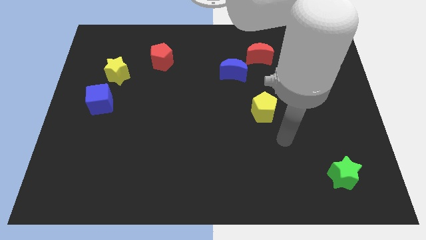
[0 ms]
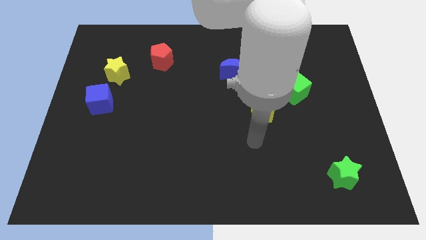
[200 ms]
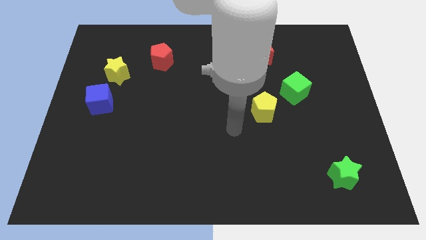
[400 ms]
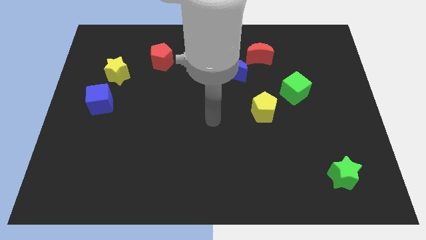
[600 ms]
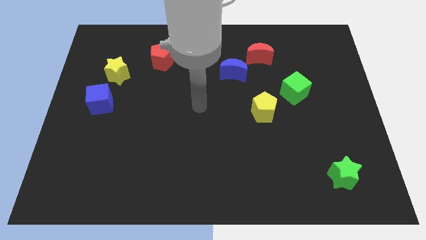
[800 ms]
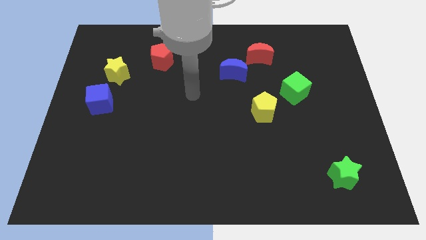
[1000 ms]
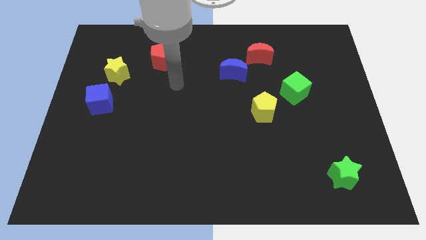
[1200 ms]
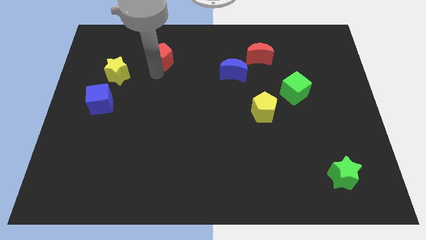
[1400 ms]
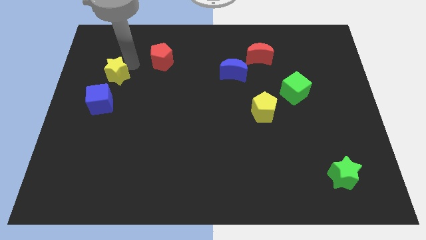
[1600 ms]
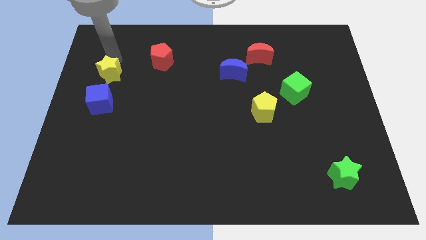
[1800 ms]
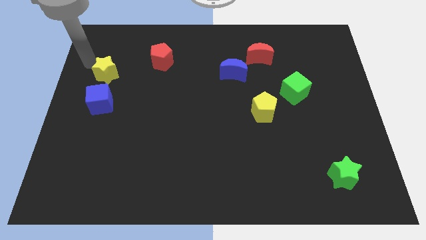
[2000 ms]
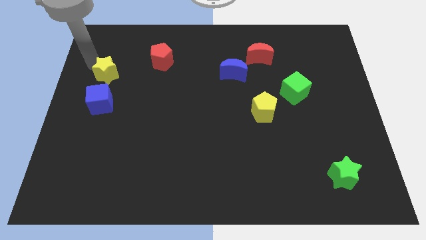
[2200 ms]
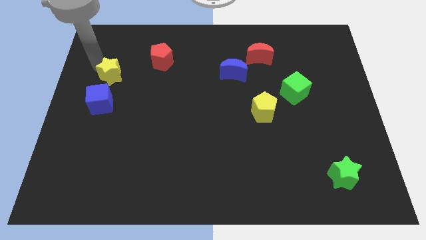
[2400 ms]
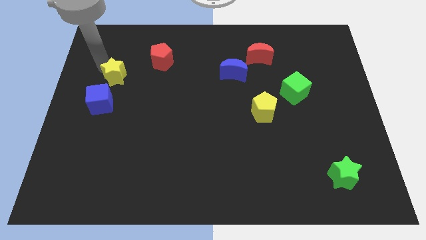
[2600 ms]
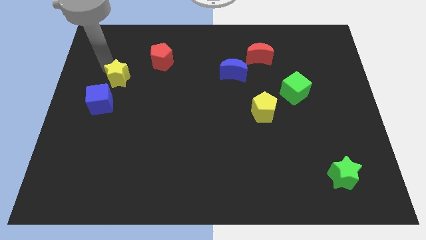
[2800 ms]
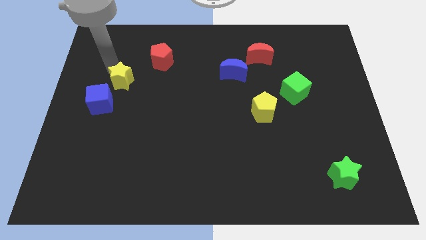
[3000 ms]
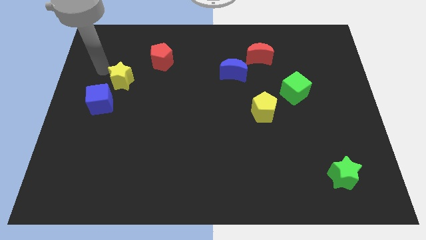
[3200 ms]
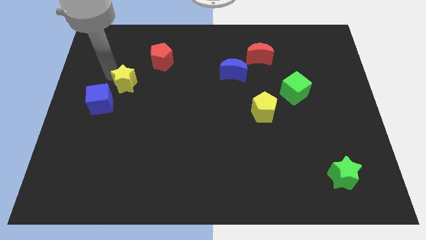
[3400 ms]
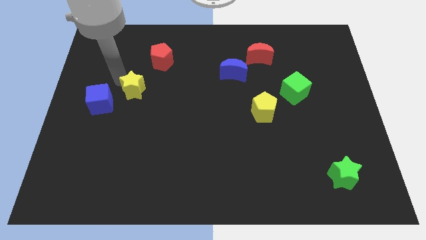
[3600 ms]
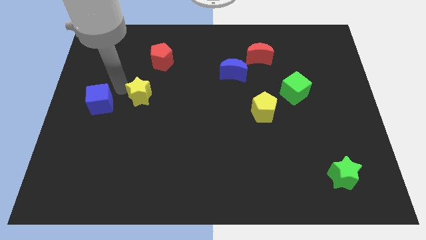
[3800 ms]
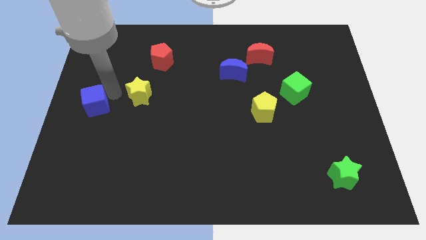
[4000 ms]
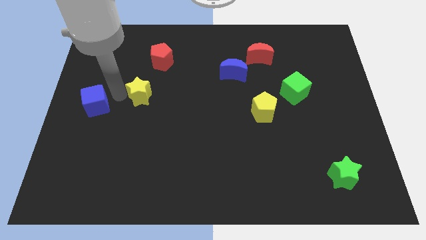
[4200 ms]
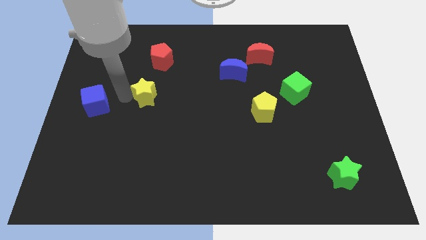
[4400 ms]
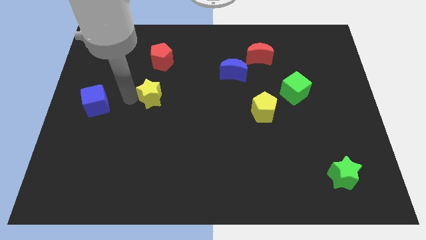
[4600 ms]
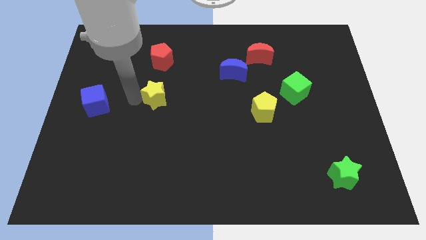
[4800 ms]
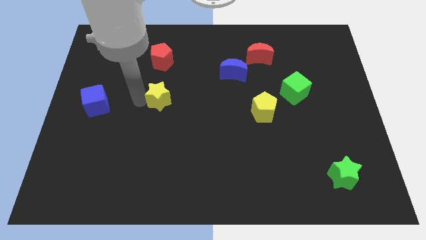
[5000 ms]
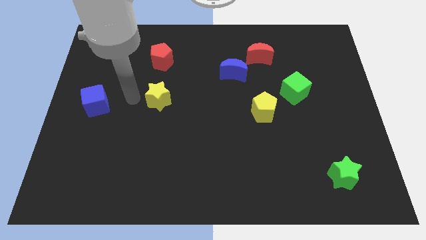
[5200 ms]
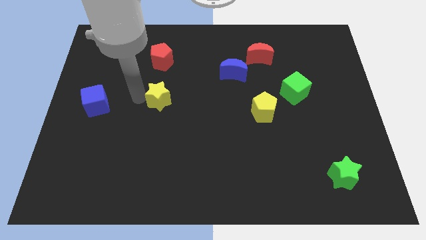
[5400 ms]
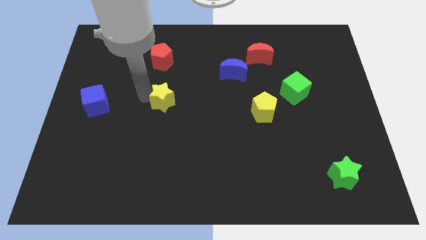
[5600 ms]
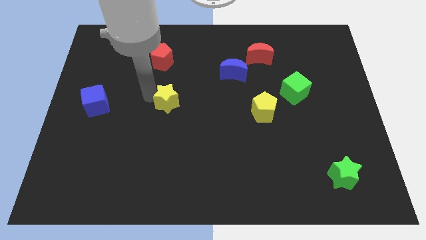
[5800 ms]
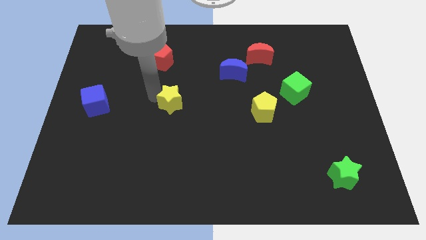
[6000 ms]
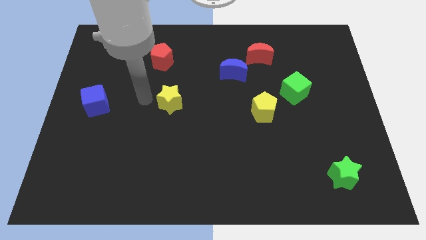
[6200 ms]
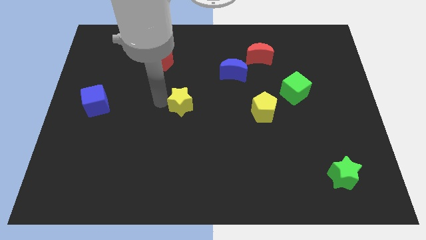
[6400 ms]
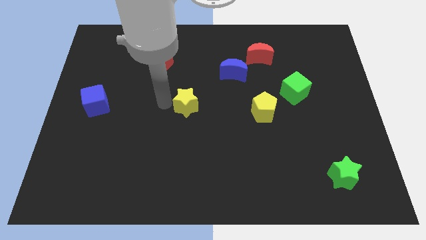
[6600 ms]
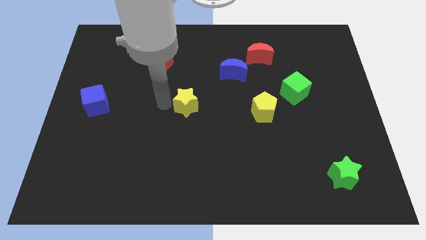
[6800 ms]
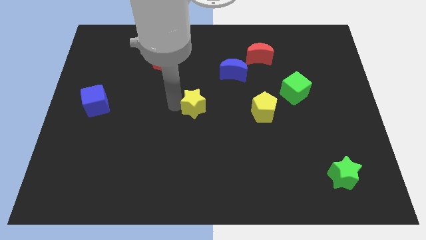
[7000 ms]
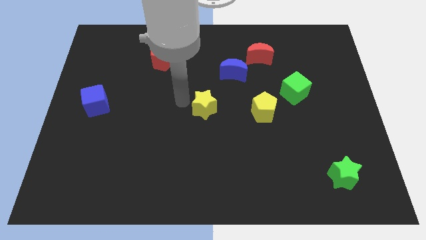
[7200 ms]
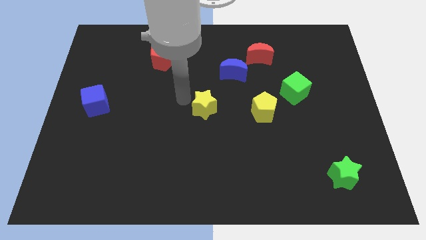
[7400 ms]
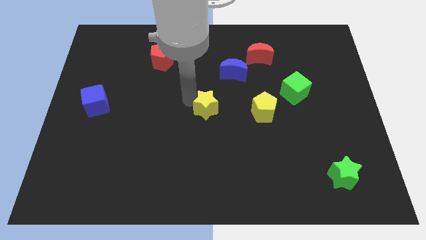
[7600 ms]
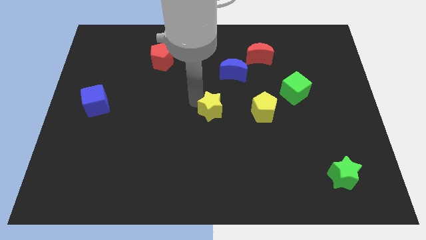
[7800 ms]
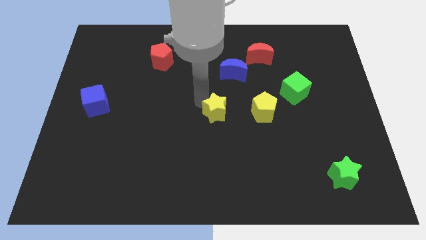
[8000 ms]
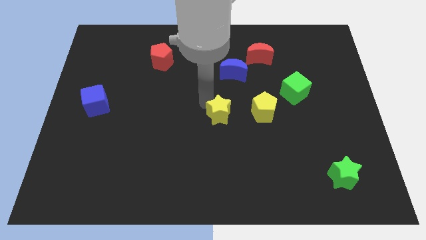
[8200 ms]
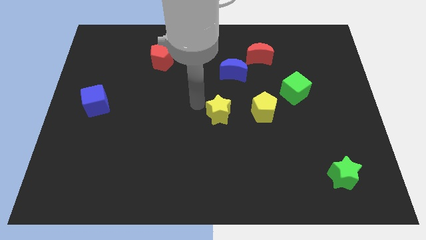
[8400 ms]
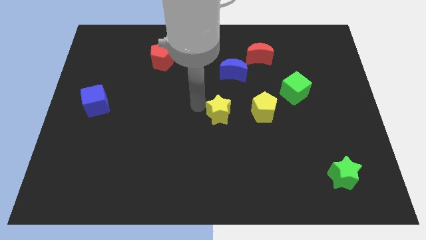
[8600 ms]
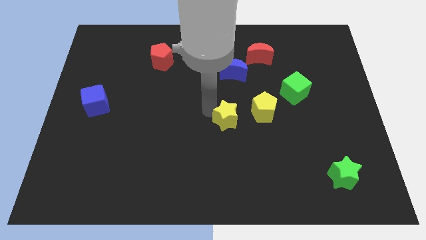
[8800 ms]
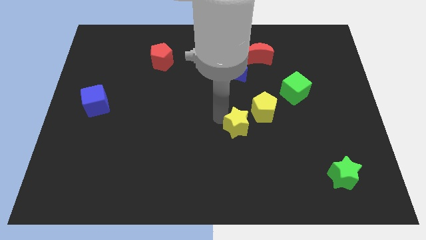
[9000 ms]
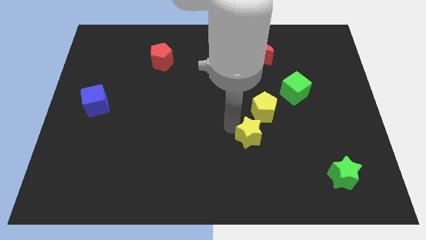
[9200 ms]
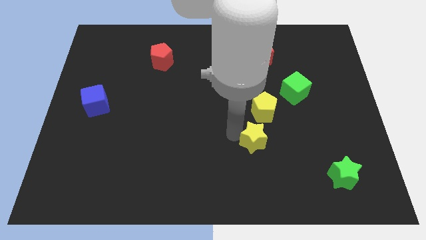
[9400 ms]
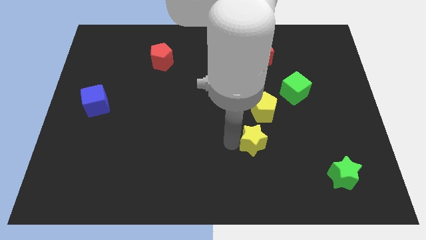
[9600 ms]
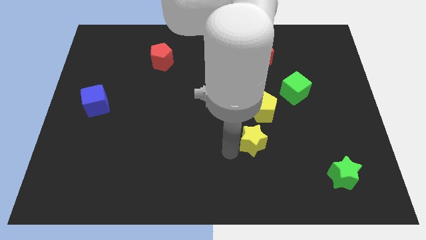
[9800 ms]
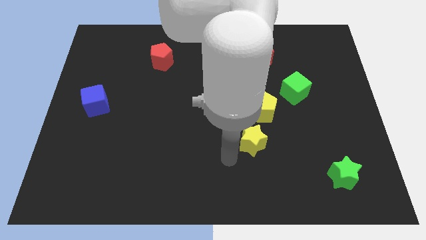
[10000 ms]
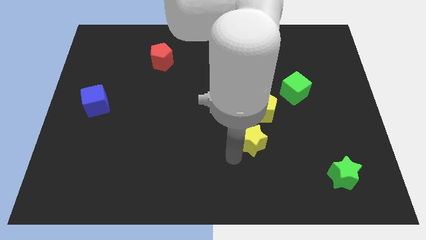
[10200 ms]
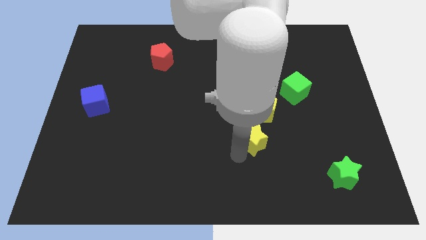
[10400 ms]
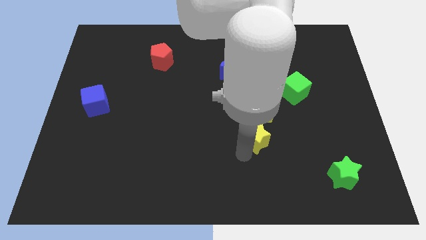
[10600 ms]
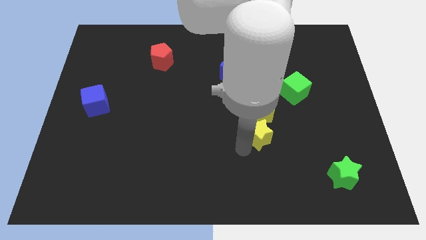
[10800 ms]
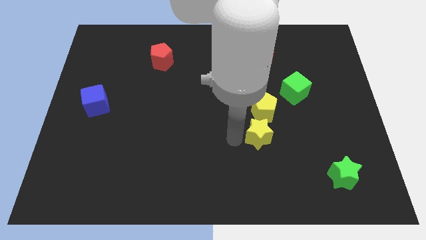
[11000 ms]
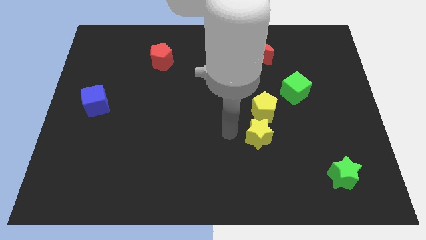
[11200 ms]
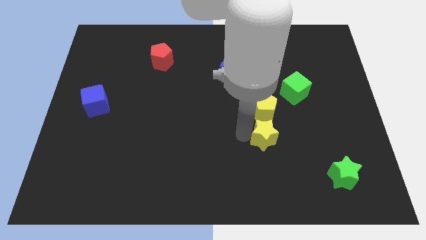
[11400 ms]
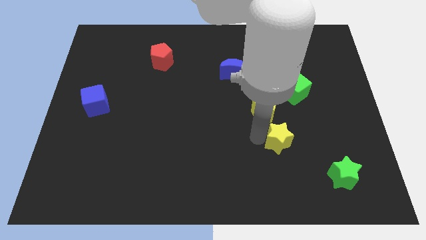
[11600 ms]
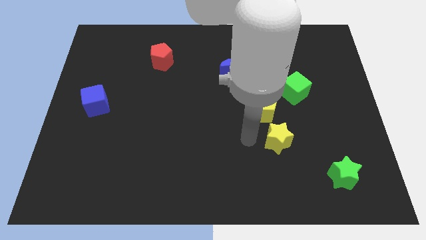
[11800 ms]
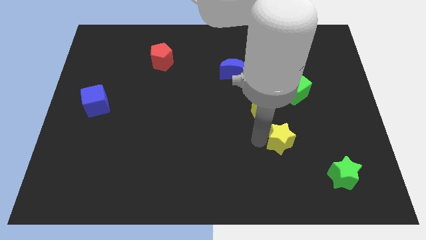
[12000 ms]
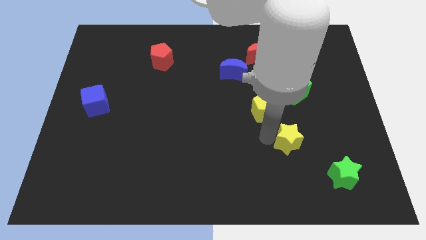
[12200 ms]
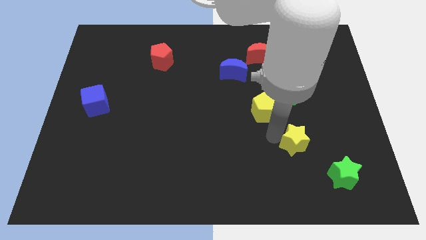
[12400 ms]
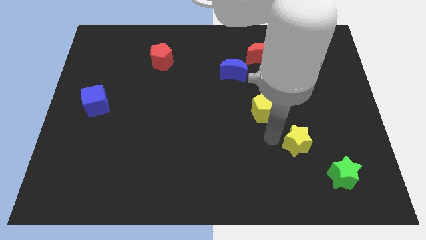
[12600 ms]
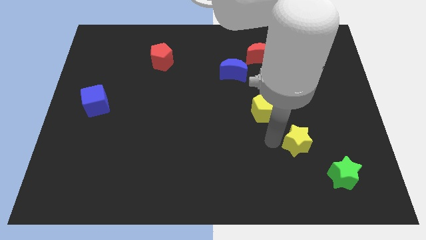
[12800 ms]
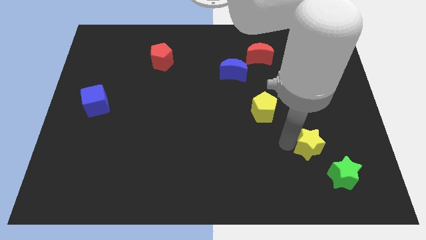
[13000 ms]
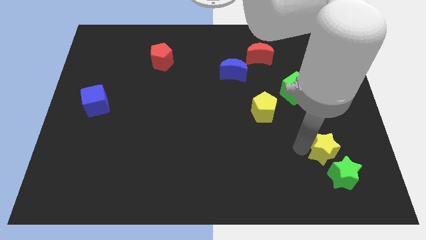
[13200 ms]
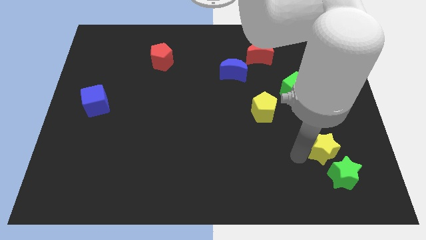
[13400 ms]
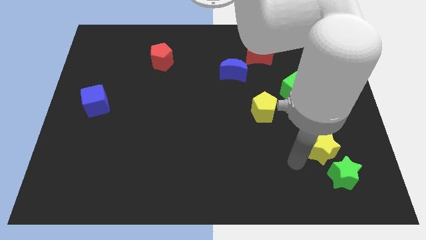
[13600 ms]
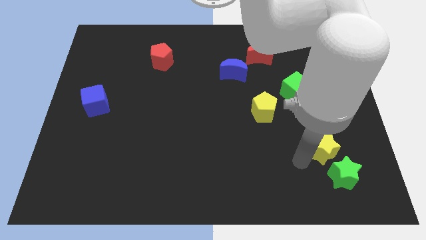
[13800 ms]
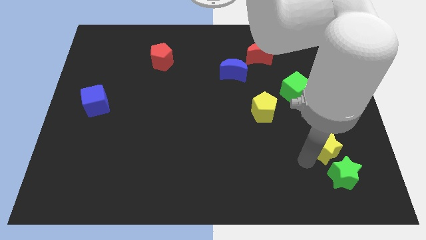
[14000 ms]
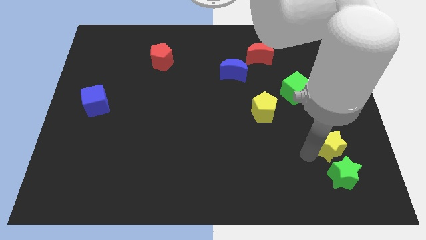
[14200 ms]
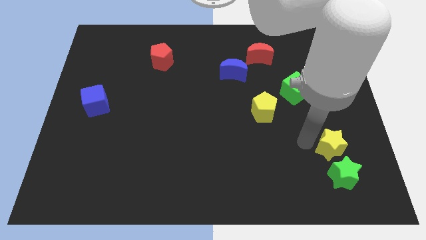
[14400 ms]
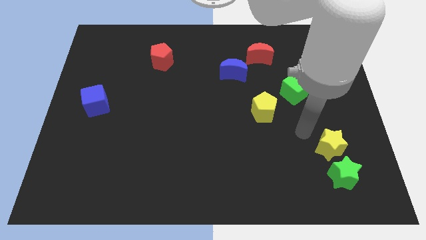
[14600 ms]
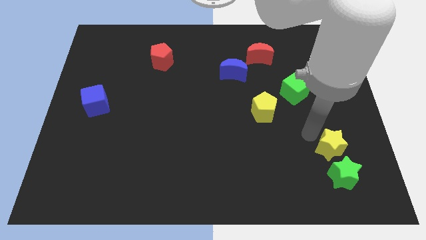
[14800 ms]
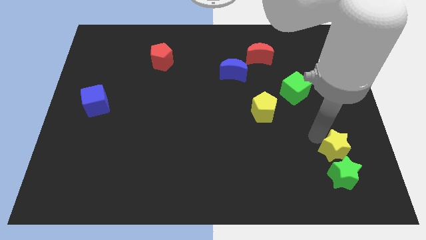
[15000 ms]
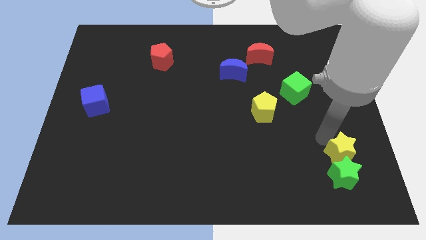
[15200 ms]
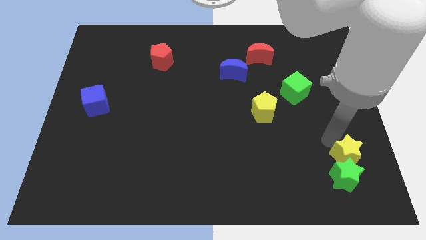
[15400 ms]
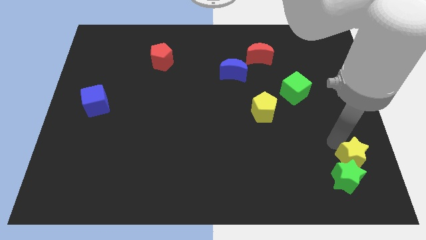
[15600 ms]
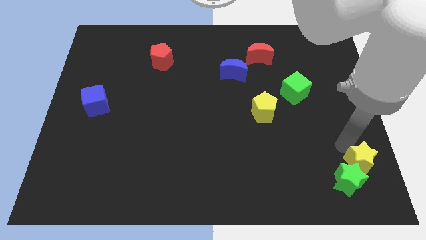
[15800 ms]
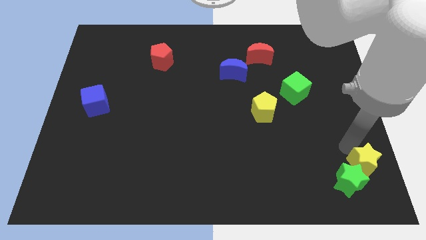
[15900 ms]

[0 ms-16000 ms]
push the yellow star to the lower right corner
